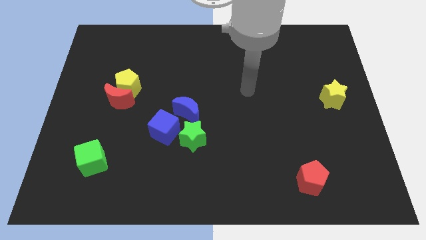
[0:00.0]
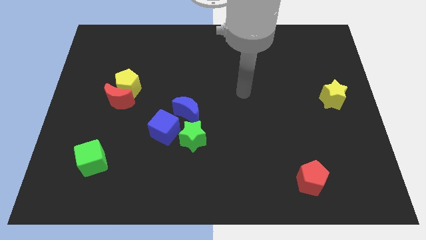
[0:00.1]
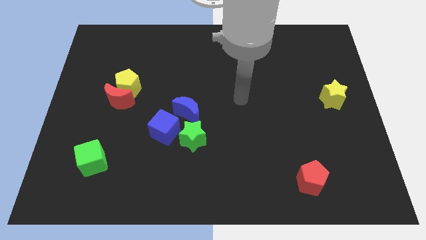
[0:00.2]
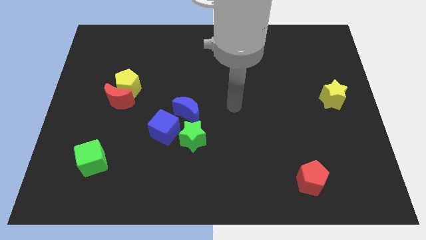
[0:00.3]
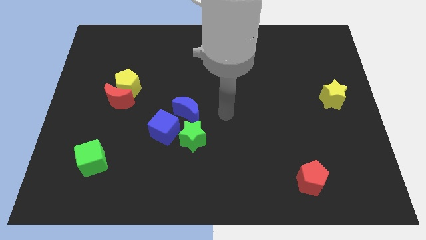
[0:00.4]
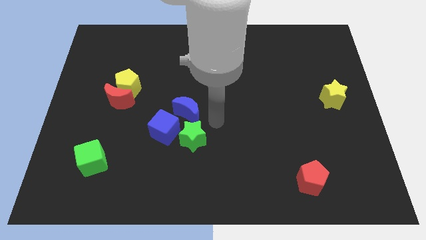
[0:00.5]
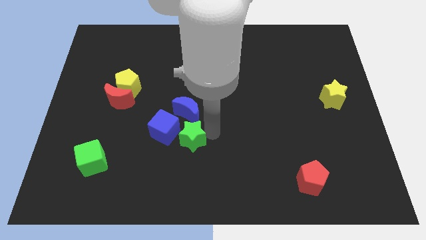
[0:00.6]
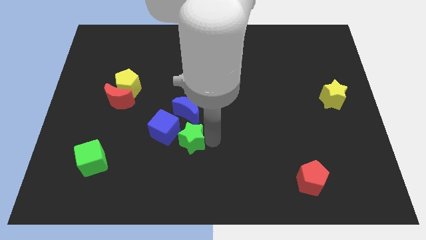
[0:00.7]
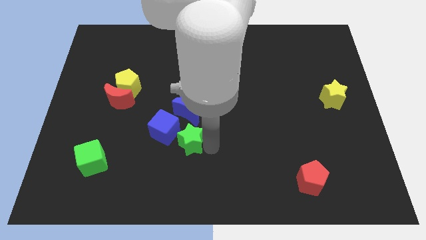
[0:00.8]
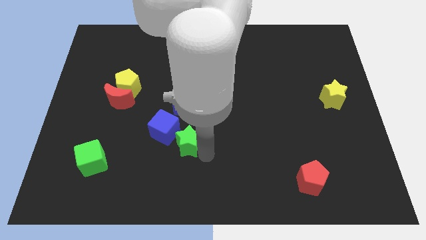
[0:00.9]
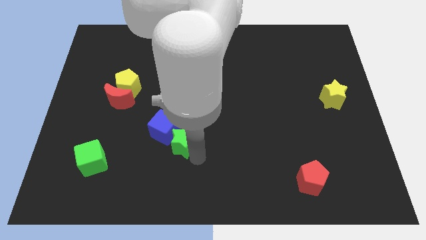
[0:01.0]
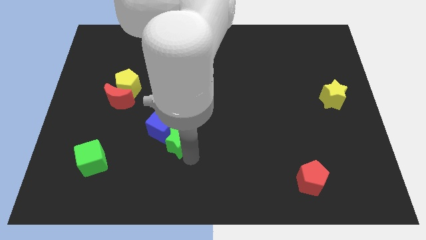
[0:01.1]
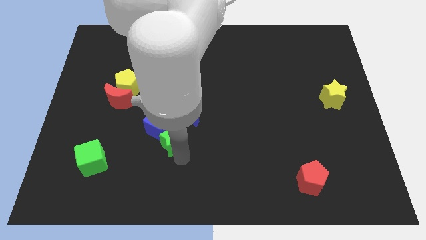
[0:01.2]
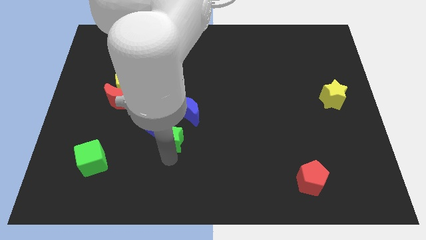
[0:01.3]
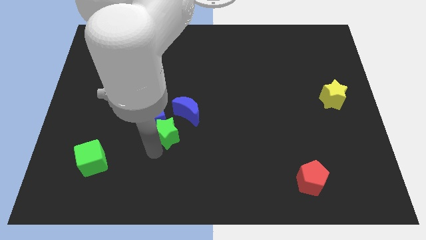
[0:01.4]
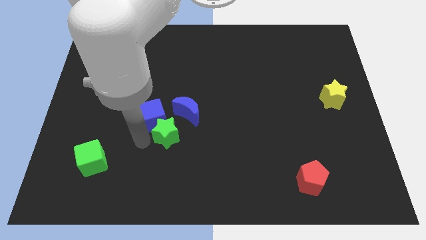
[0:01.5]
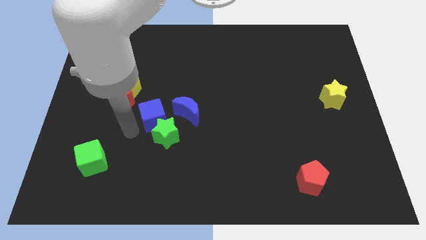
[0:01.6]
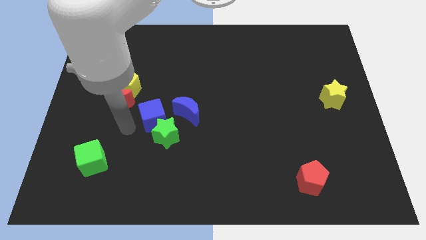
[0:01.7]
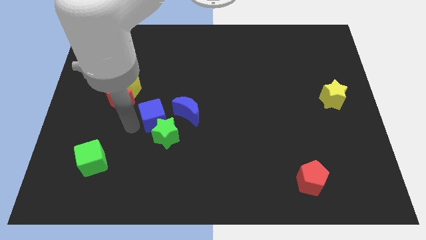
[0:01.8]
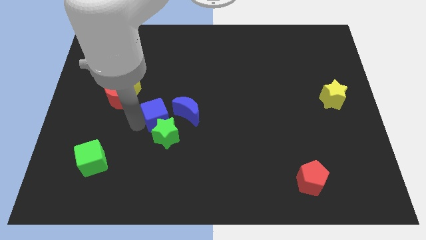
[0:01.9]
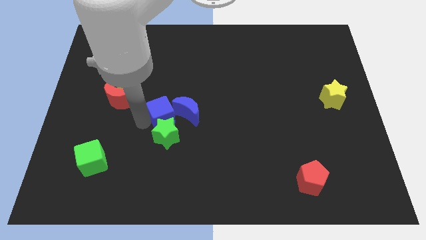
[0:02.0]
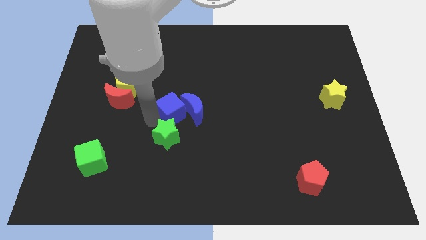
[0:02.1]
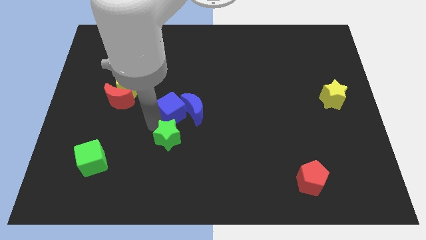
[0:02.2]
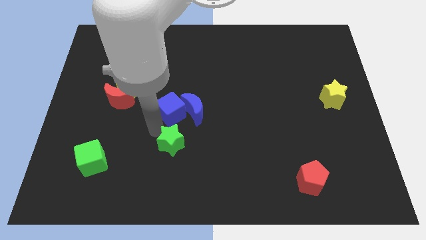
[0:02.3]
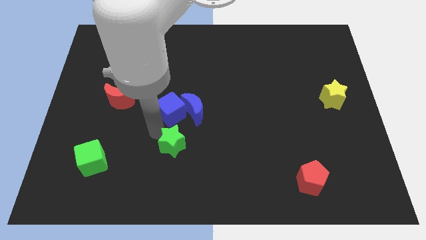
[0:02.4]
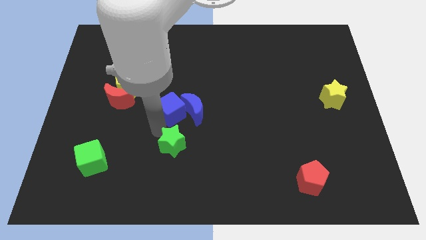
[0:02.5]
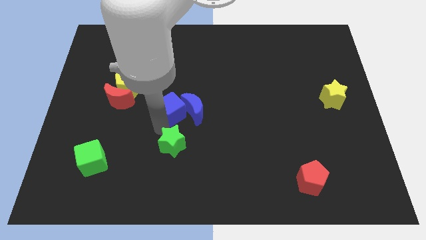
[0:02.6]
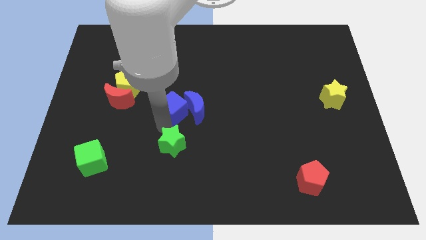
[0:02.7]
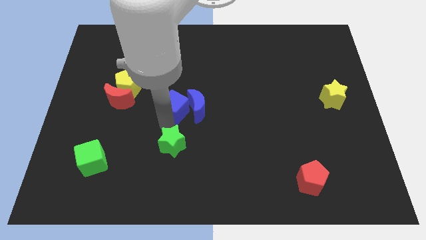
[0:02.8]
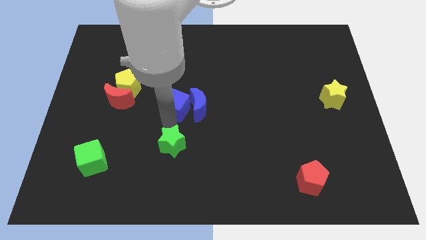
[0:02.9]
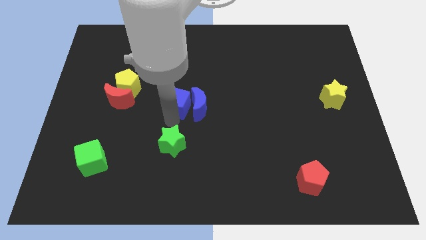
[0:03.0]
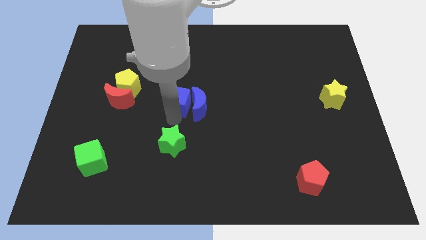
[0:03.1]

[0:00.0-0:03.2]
push the blue cube somewhat diagonally up and right

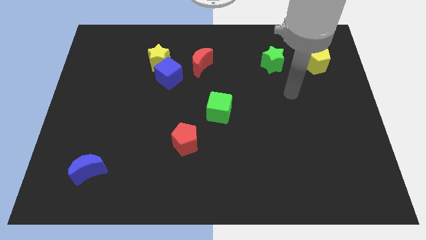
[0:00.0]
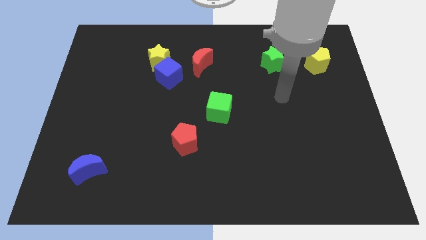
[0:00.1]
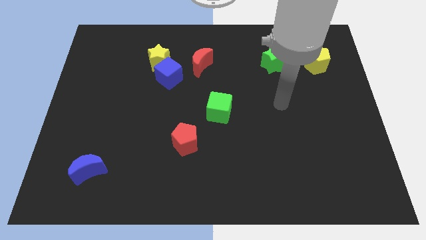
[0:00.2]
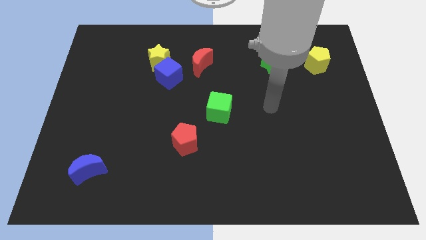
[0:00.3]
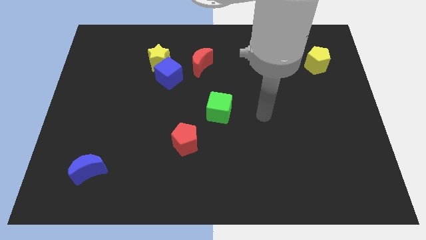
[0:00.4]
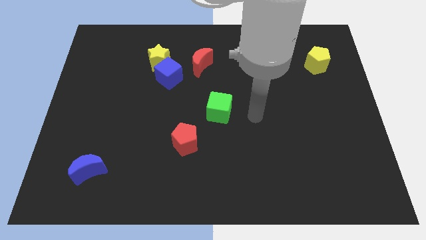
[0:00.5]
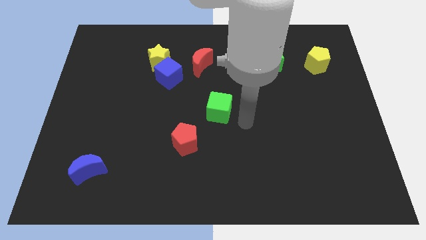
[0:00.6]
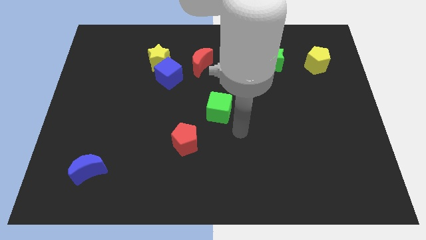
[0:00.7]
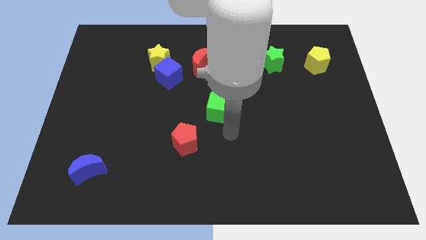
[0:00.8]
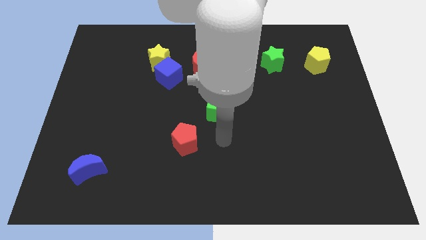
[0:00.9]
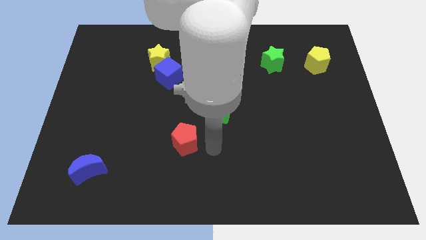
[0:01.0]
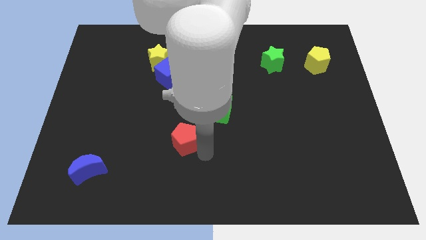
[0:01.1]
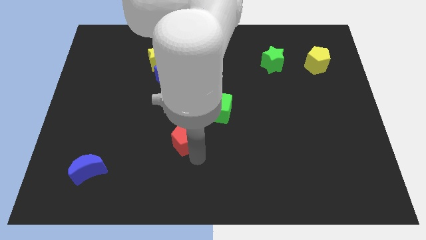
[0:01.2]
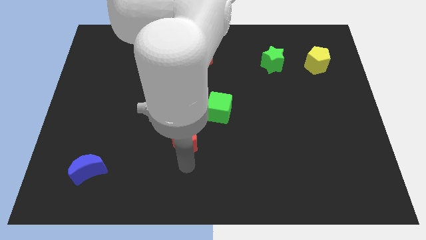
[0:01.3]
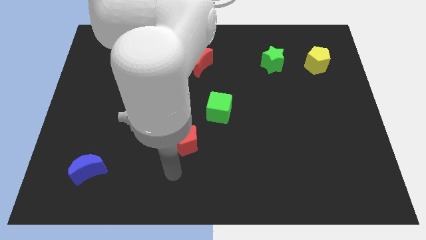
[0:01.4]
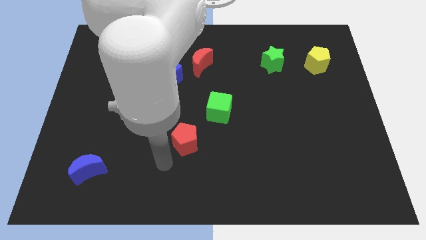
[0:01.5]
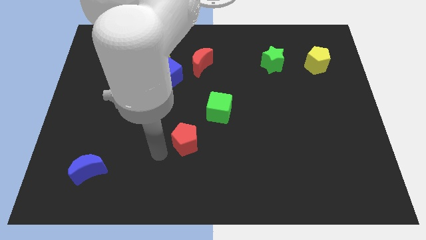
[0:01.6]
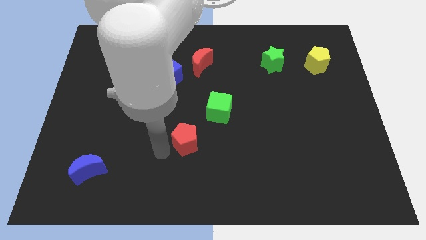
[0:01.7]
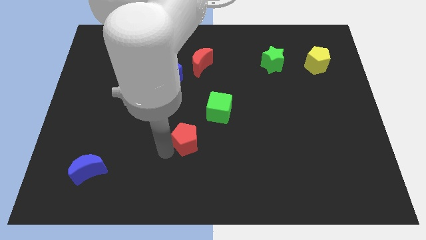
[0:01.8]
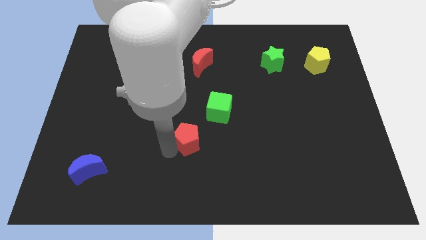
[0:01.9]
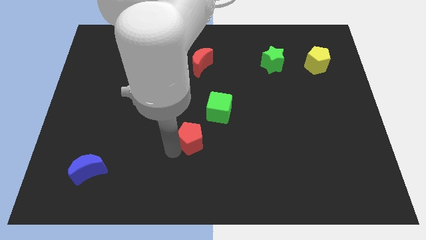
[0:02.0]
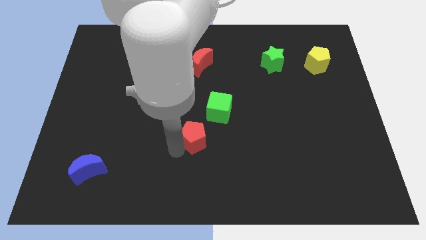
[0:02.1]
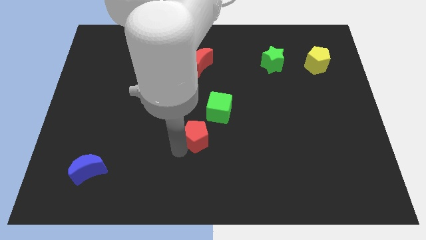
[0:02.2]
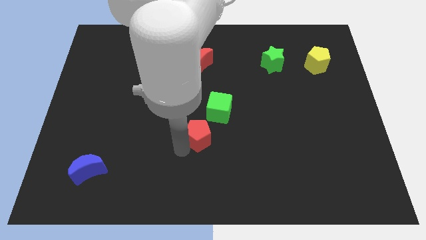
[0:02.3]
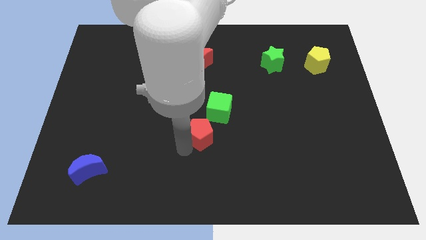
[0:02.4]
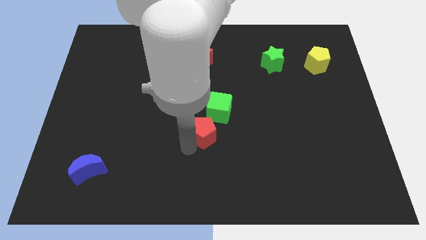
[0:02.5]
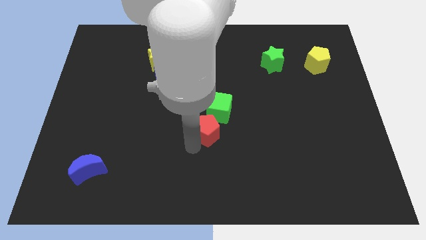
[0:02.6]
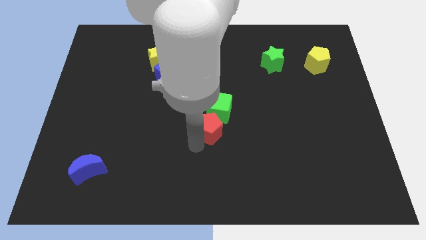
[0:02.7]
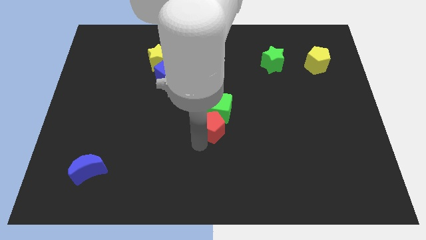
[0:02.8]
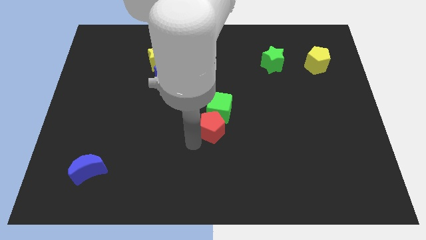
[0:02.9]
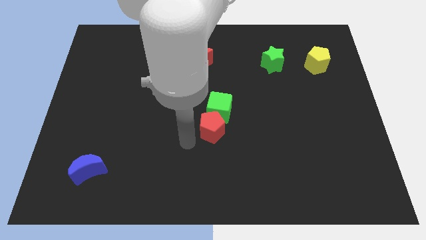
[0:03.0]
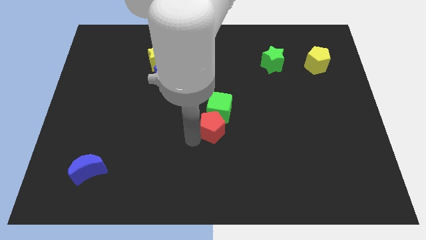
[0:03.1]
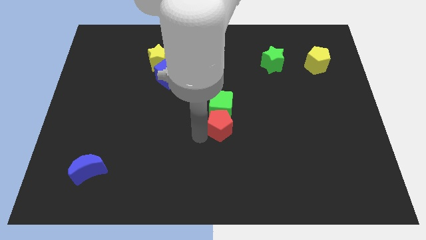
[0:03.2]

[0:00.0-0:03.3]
slide the red pentagon a little up and to the right diagonally

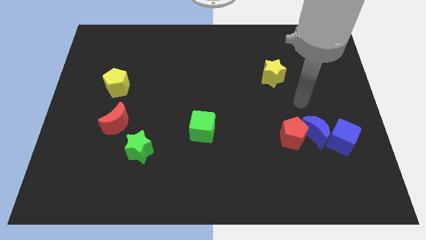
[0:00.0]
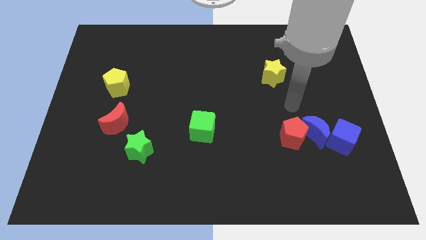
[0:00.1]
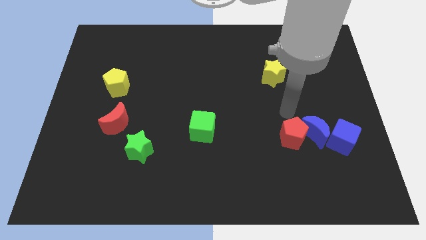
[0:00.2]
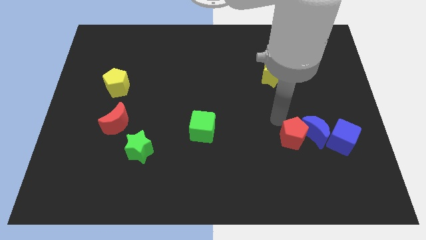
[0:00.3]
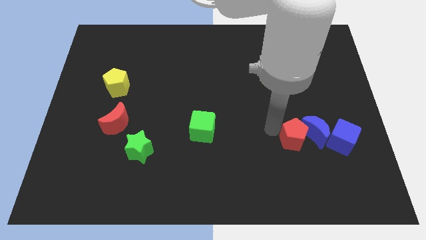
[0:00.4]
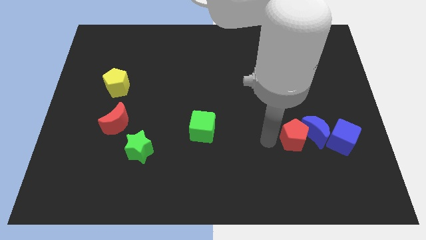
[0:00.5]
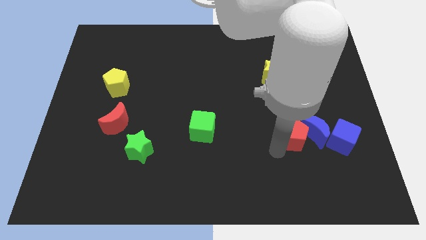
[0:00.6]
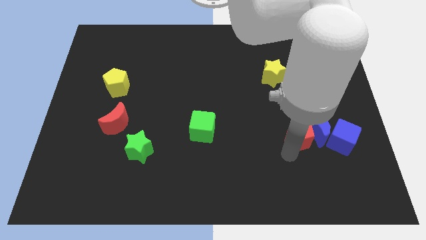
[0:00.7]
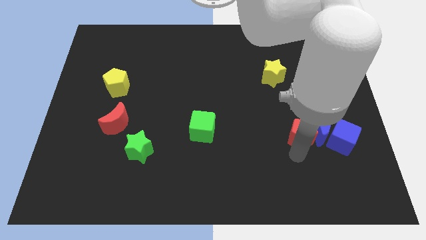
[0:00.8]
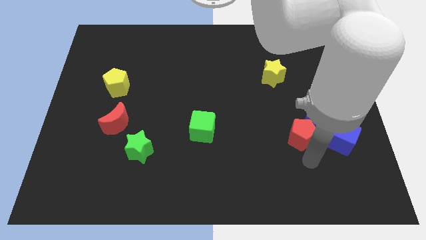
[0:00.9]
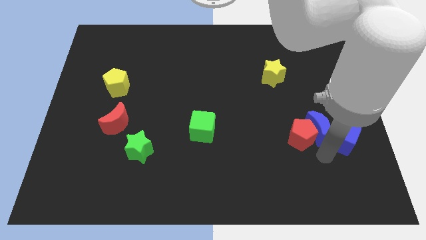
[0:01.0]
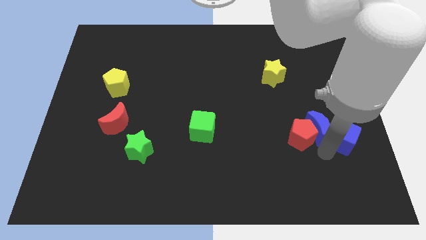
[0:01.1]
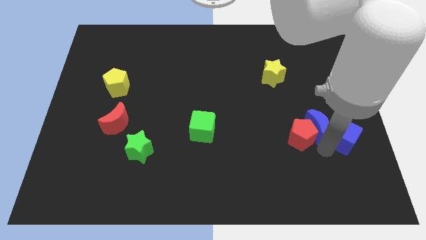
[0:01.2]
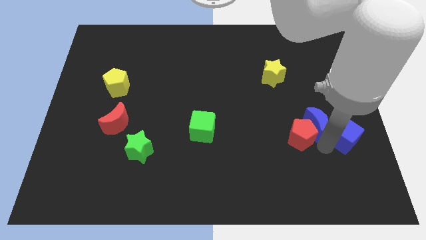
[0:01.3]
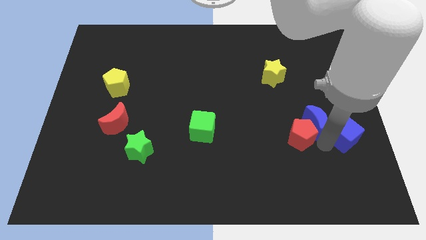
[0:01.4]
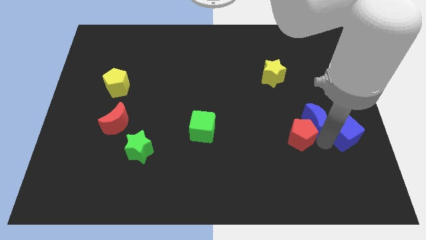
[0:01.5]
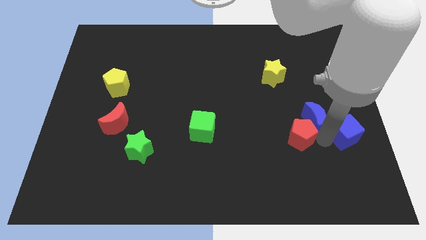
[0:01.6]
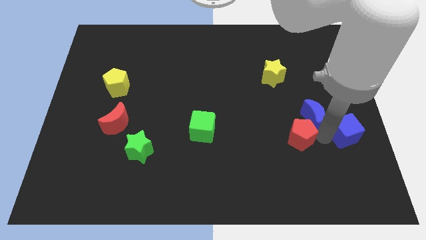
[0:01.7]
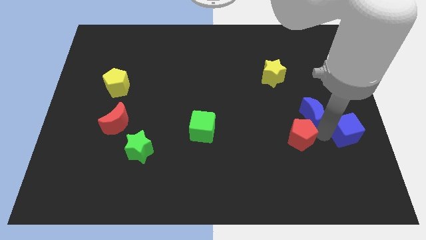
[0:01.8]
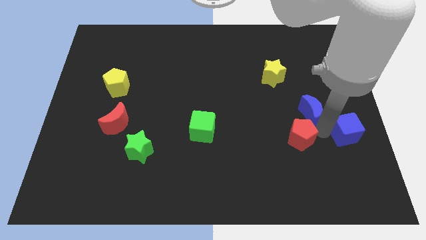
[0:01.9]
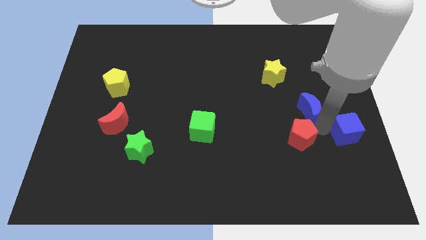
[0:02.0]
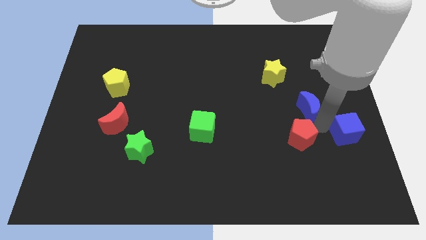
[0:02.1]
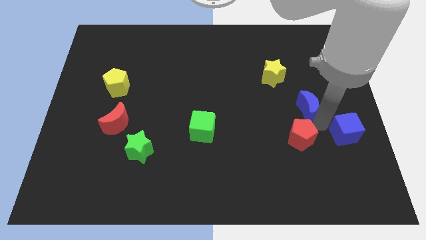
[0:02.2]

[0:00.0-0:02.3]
slightly slide the blue moon upwards
